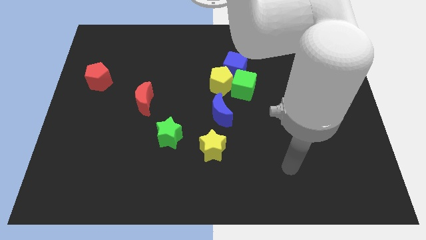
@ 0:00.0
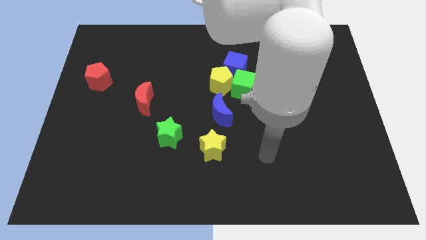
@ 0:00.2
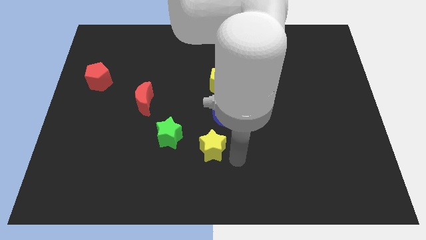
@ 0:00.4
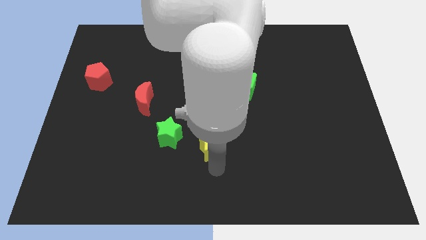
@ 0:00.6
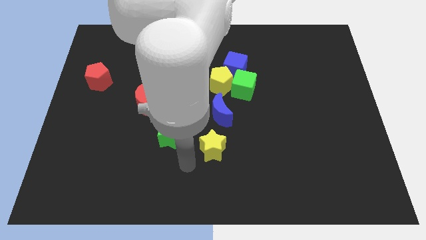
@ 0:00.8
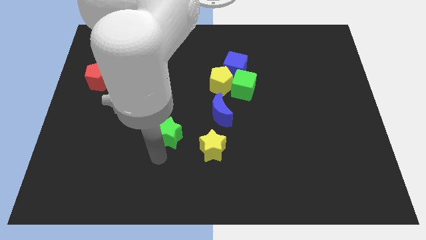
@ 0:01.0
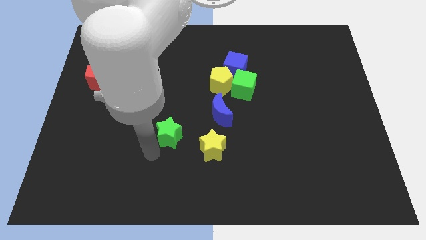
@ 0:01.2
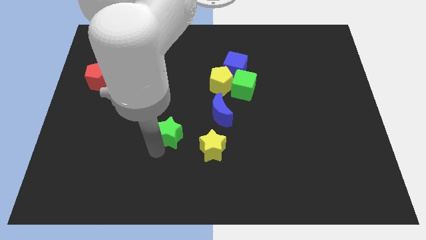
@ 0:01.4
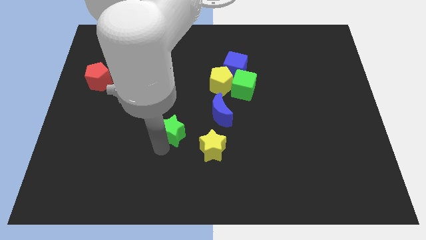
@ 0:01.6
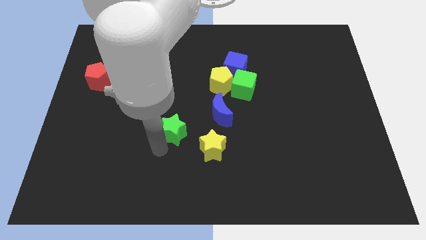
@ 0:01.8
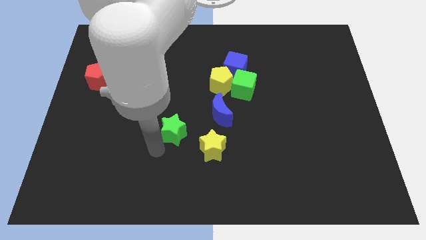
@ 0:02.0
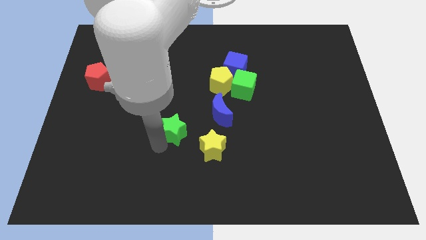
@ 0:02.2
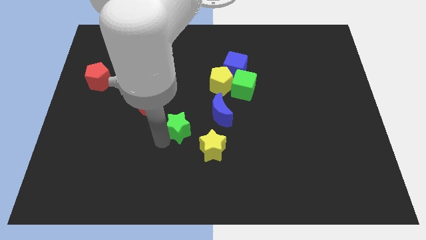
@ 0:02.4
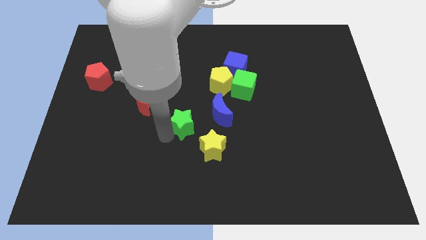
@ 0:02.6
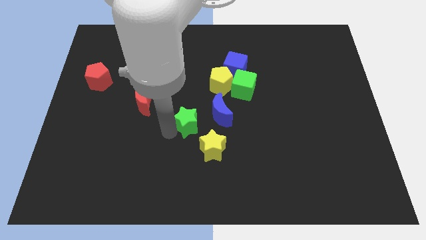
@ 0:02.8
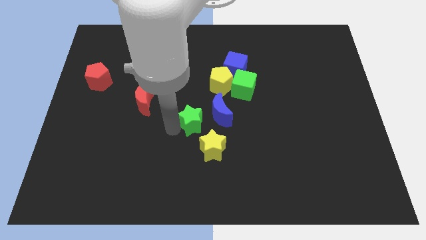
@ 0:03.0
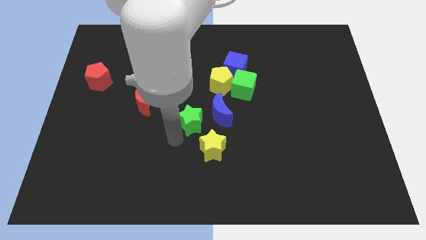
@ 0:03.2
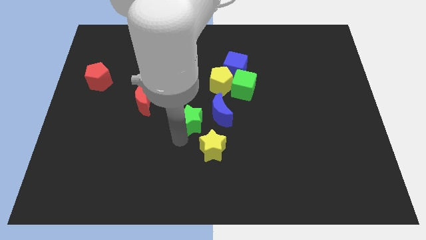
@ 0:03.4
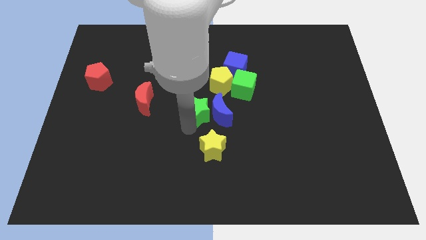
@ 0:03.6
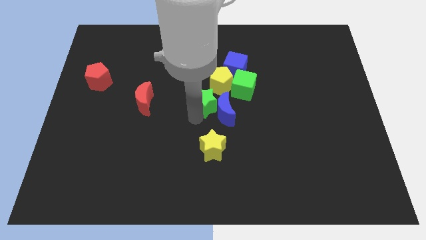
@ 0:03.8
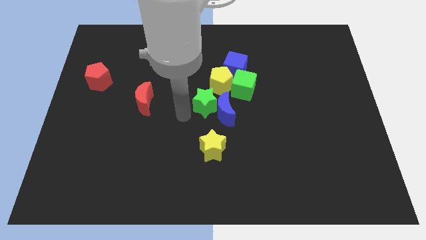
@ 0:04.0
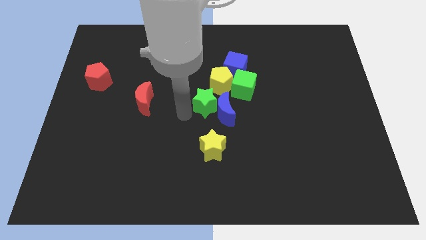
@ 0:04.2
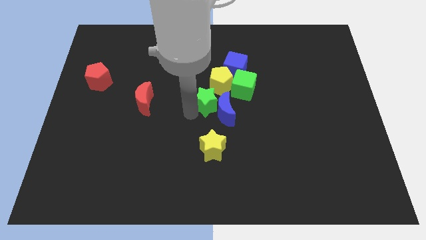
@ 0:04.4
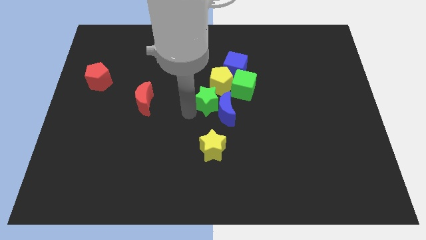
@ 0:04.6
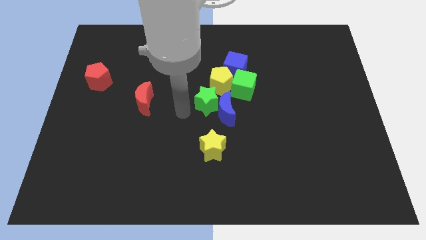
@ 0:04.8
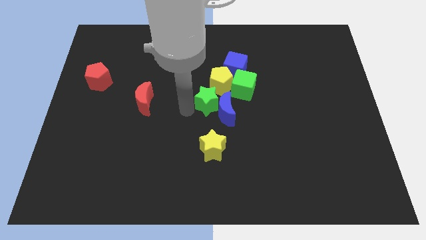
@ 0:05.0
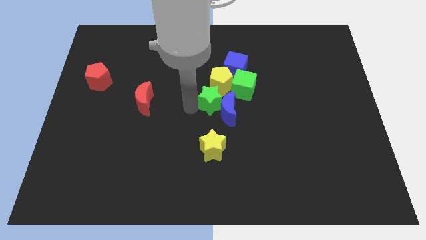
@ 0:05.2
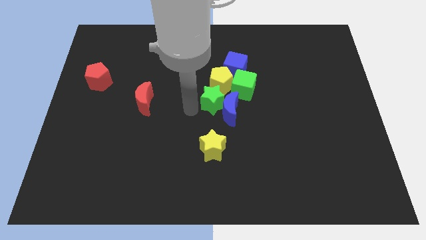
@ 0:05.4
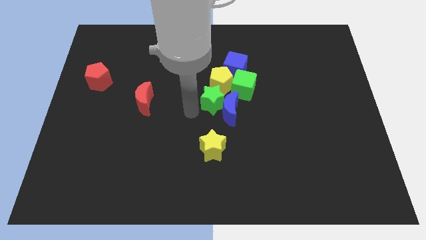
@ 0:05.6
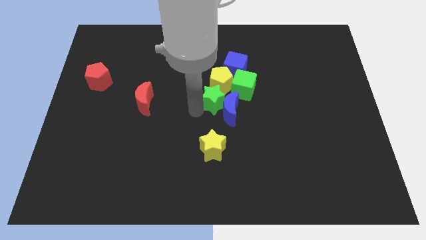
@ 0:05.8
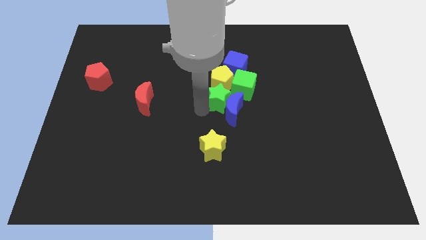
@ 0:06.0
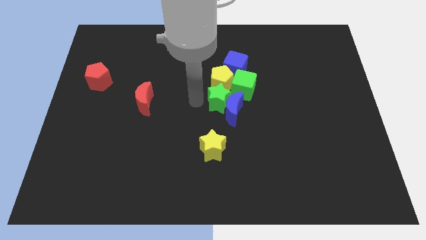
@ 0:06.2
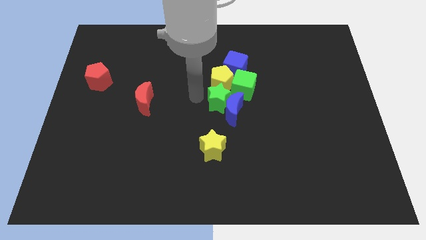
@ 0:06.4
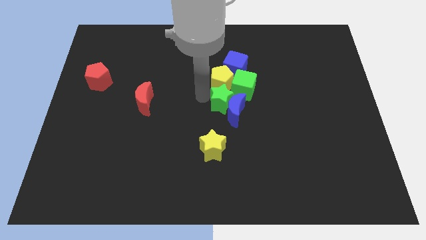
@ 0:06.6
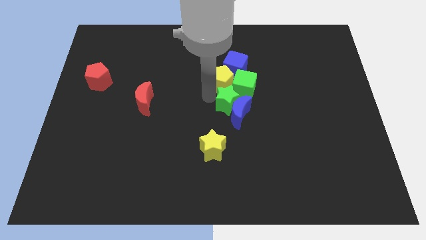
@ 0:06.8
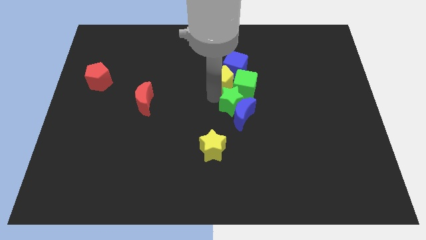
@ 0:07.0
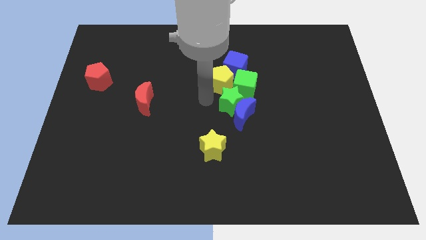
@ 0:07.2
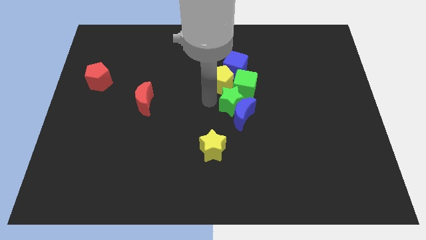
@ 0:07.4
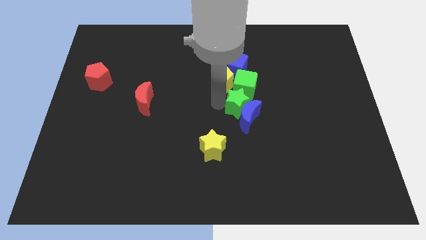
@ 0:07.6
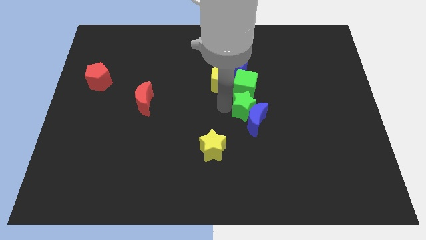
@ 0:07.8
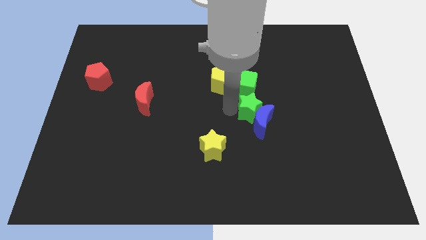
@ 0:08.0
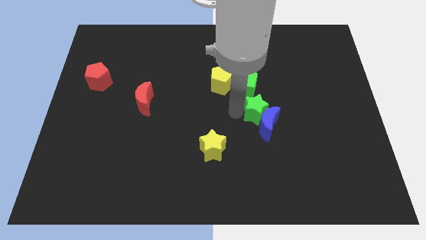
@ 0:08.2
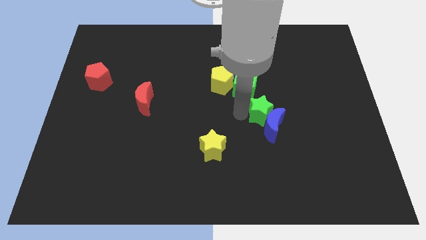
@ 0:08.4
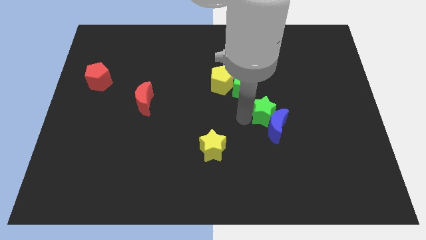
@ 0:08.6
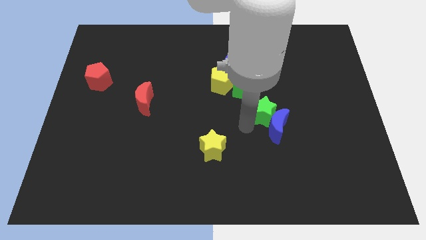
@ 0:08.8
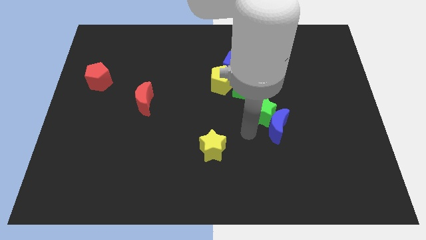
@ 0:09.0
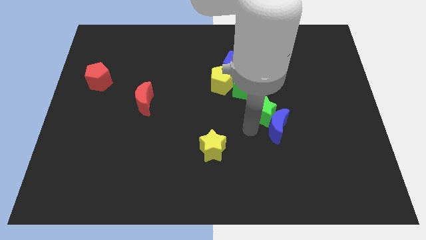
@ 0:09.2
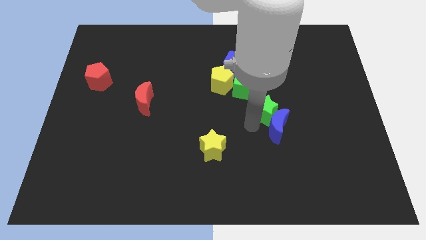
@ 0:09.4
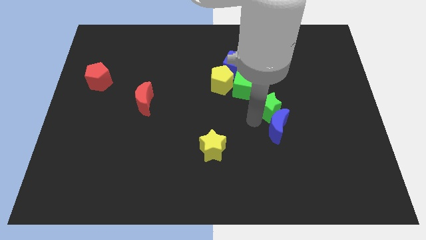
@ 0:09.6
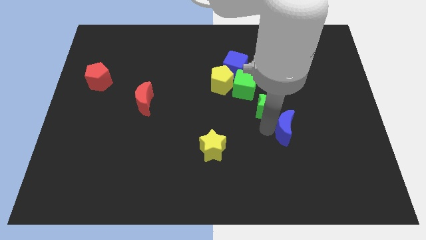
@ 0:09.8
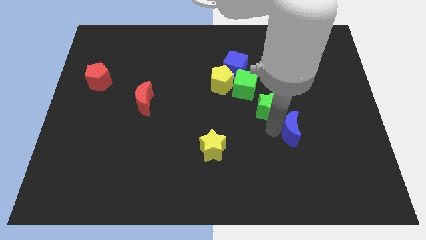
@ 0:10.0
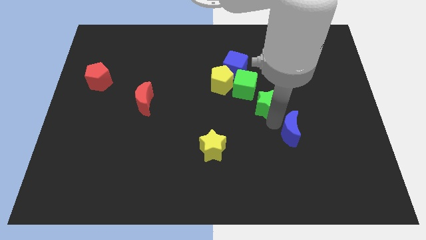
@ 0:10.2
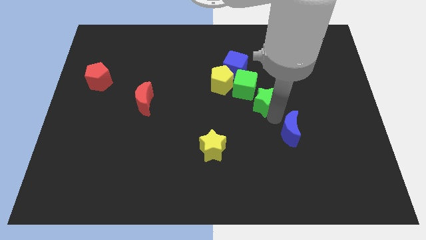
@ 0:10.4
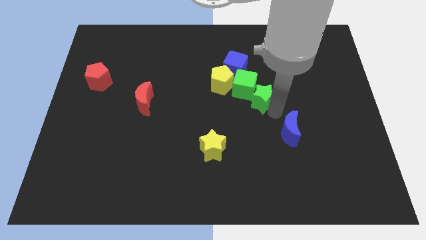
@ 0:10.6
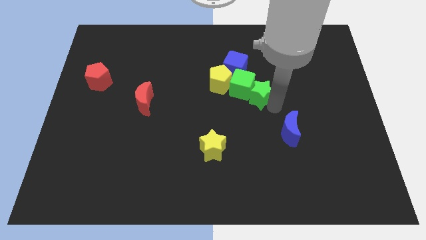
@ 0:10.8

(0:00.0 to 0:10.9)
put the green star to the right side of the yellow pentagon
